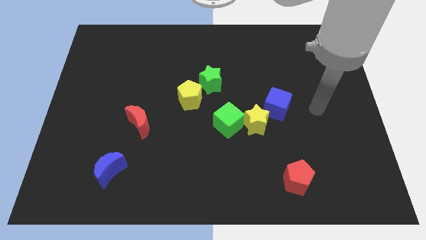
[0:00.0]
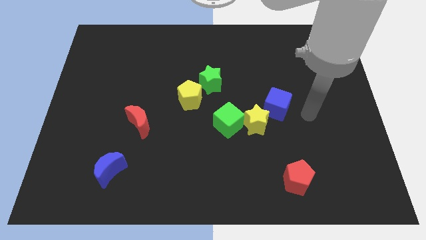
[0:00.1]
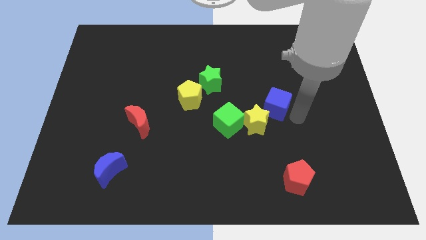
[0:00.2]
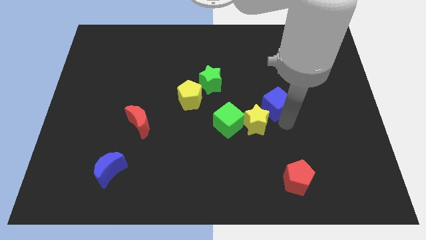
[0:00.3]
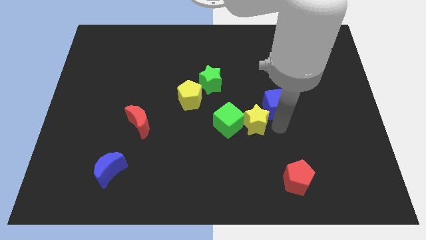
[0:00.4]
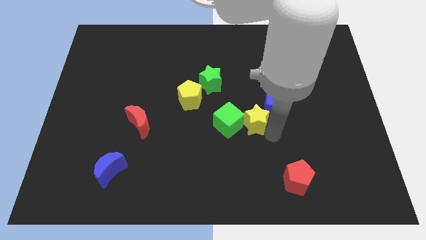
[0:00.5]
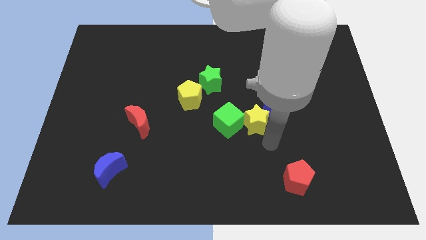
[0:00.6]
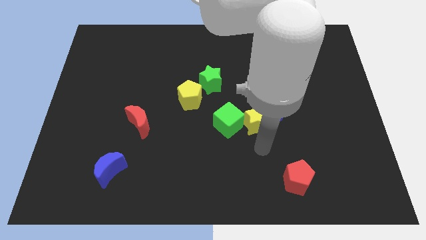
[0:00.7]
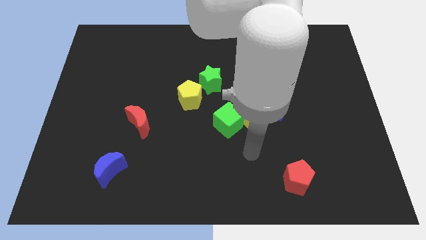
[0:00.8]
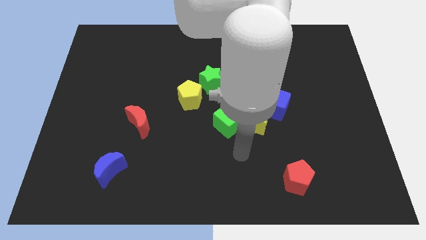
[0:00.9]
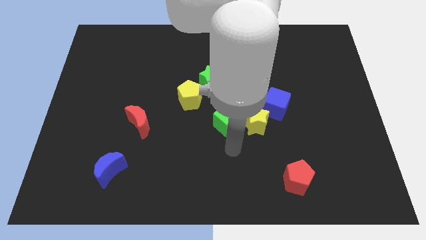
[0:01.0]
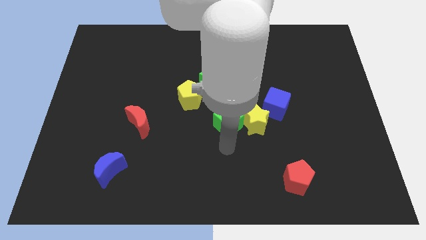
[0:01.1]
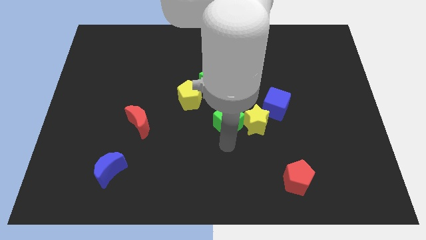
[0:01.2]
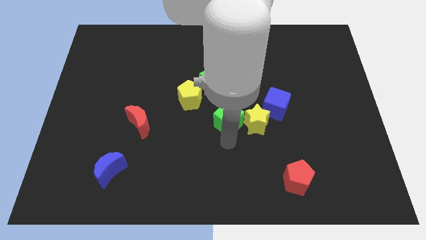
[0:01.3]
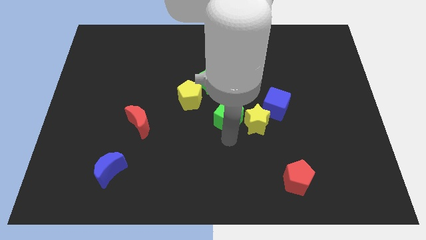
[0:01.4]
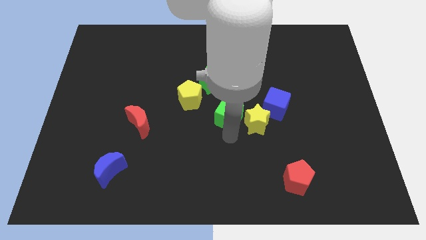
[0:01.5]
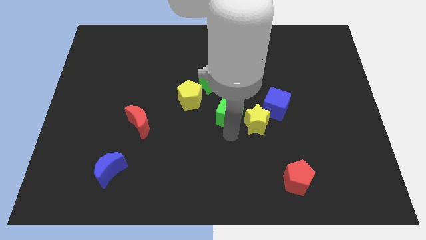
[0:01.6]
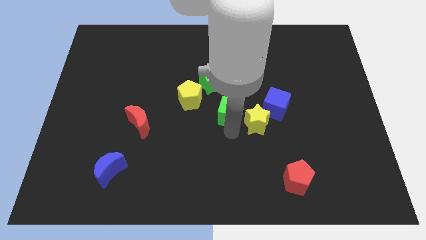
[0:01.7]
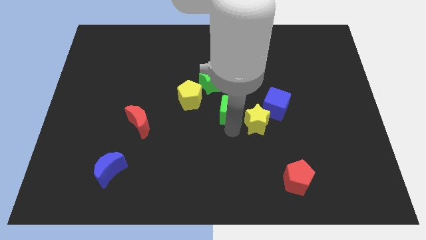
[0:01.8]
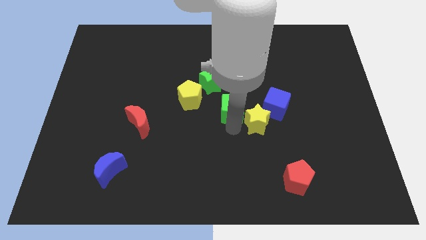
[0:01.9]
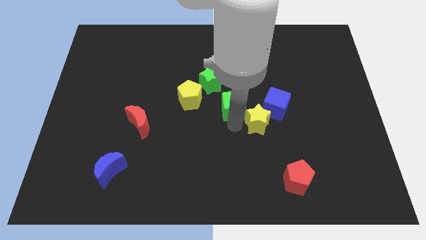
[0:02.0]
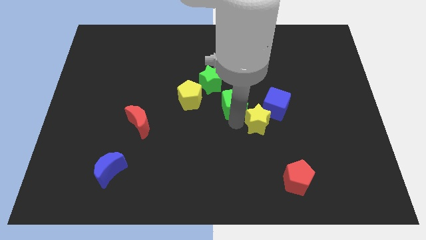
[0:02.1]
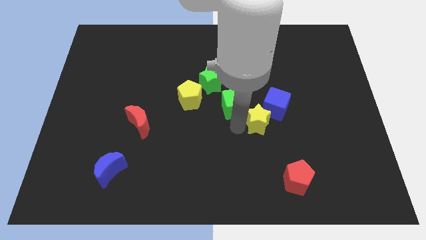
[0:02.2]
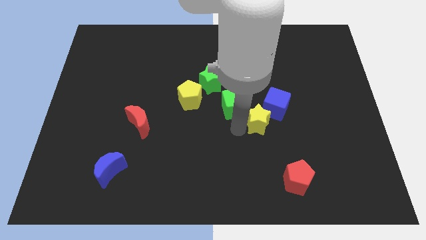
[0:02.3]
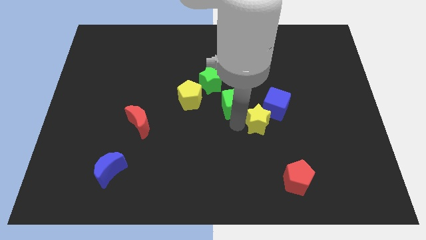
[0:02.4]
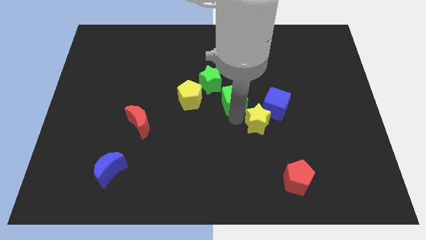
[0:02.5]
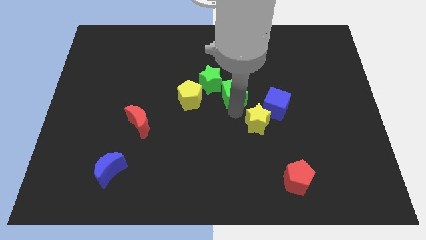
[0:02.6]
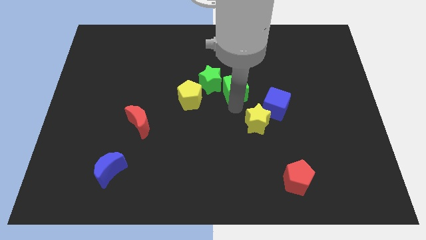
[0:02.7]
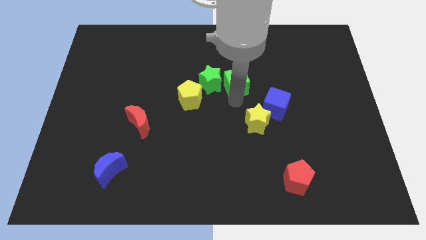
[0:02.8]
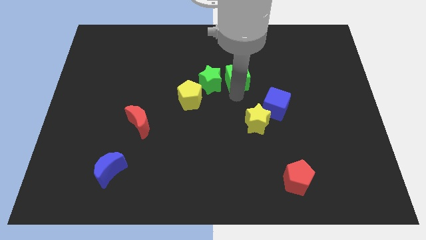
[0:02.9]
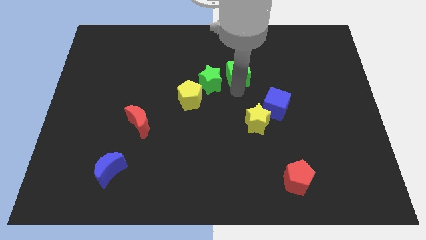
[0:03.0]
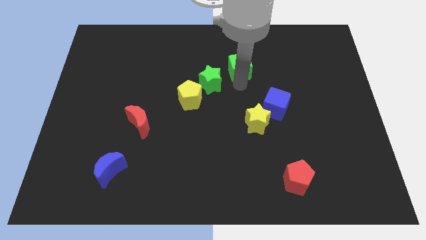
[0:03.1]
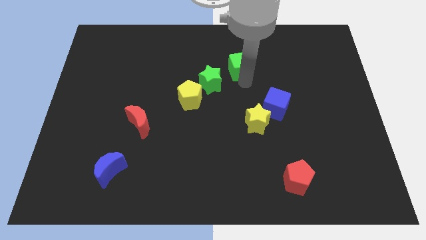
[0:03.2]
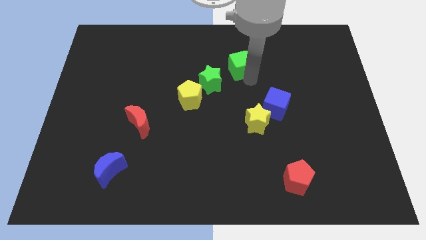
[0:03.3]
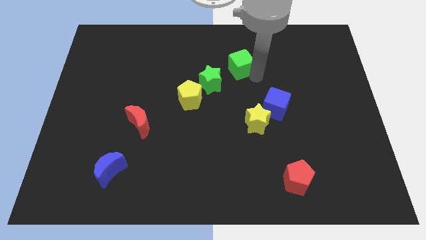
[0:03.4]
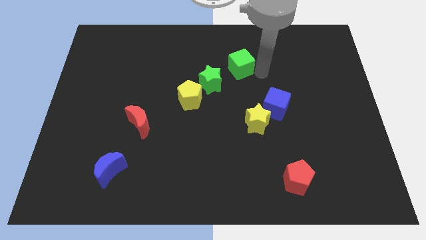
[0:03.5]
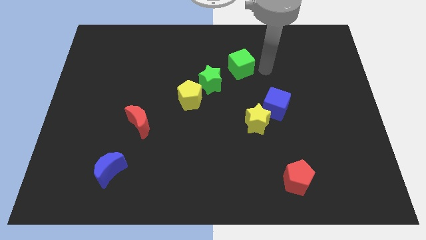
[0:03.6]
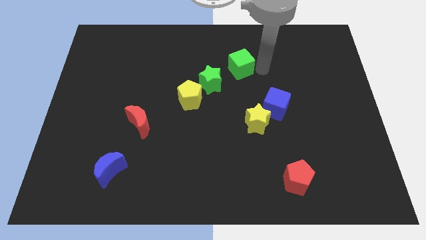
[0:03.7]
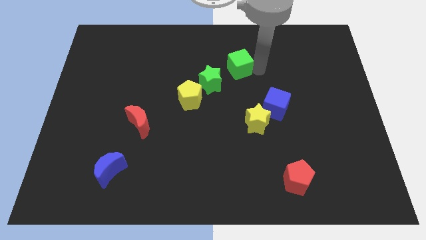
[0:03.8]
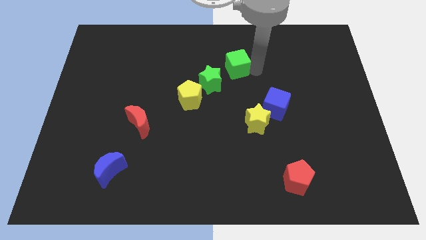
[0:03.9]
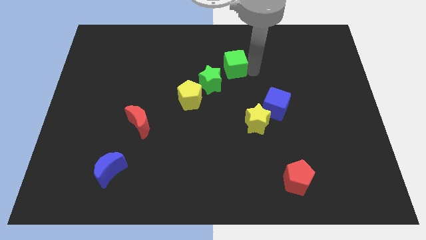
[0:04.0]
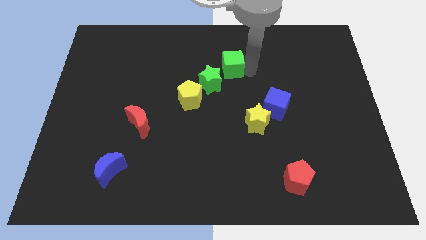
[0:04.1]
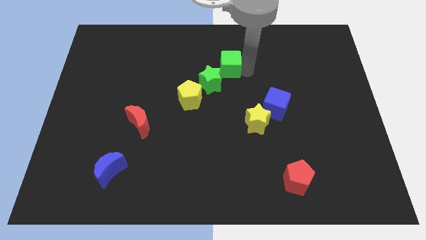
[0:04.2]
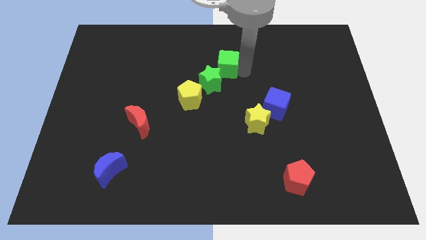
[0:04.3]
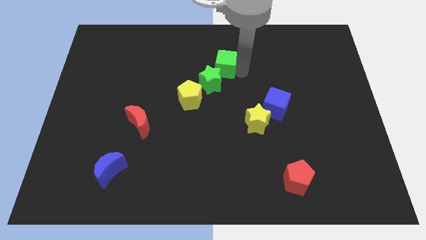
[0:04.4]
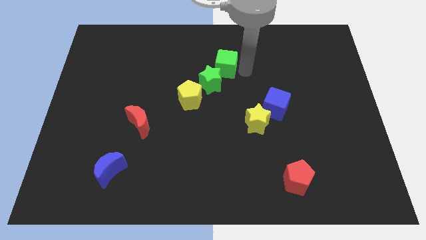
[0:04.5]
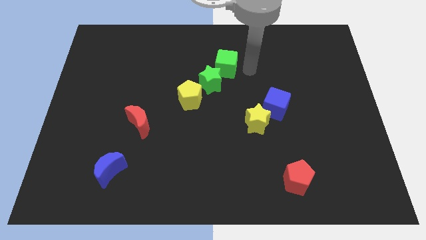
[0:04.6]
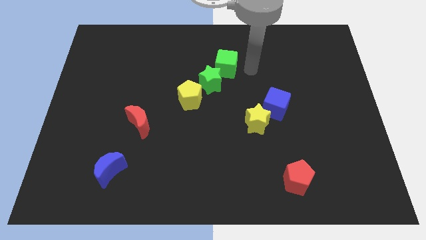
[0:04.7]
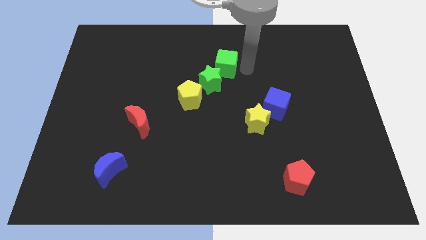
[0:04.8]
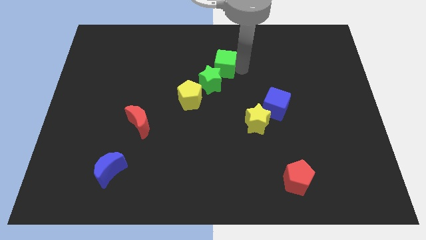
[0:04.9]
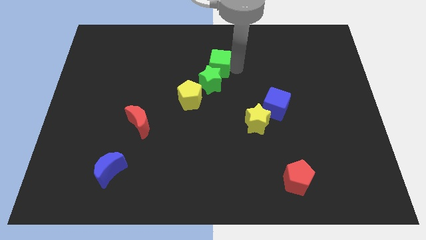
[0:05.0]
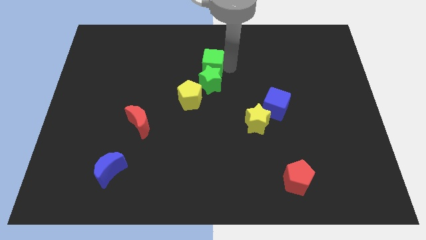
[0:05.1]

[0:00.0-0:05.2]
push the green cube to the top left side of the green star

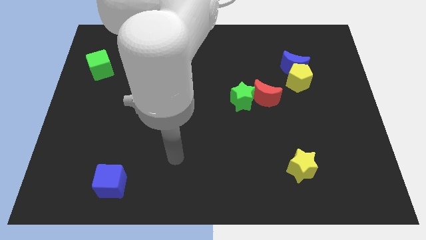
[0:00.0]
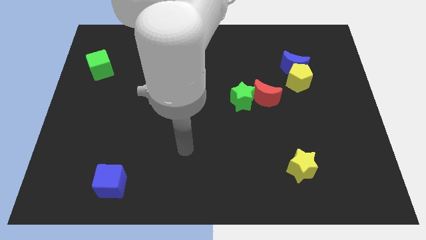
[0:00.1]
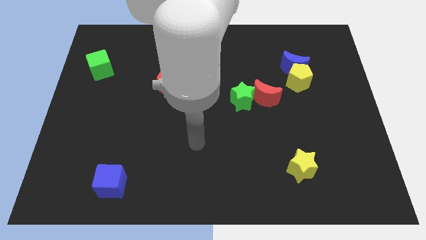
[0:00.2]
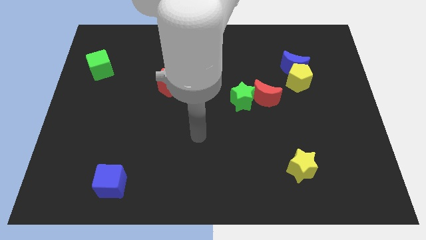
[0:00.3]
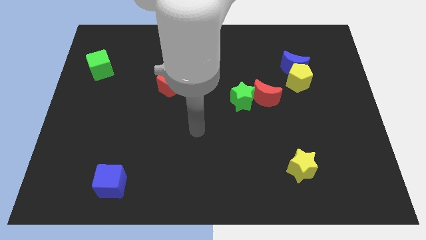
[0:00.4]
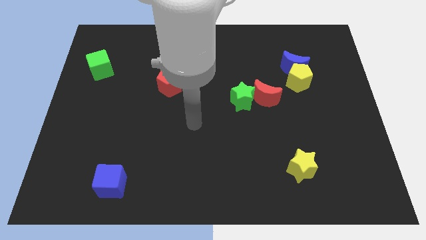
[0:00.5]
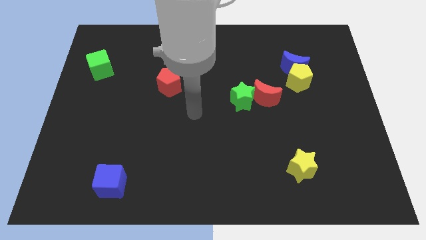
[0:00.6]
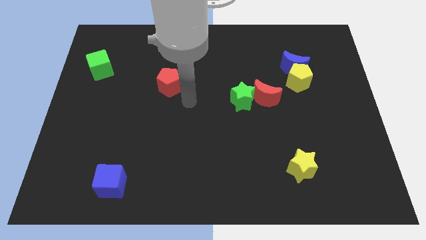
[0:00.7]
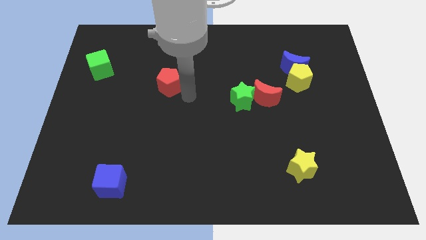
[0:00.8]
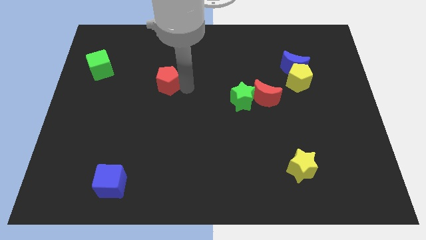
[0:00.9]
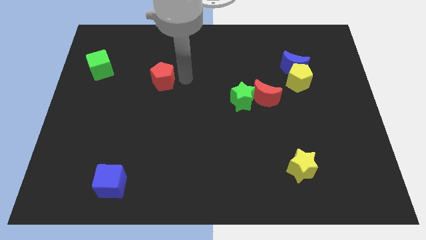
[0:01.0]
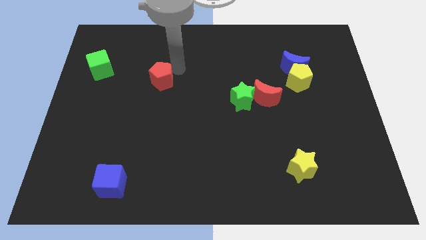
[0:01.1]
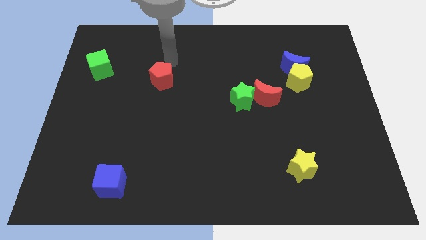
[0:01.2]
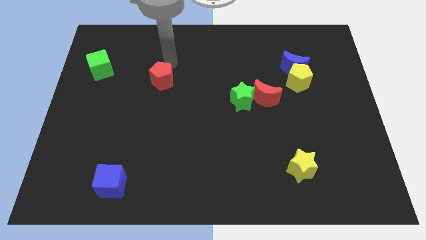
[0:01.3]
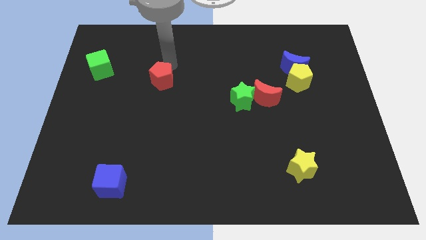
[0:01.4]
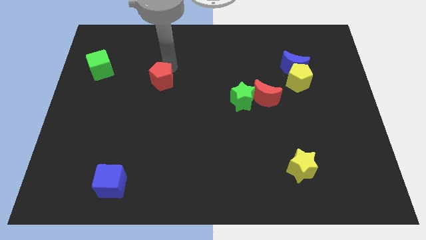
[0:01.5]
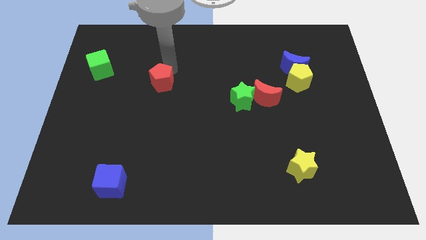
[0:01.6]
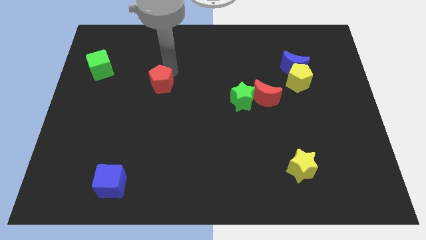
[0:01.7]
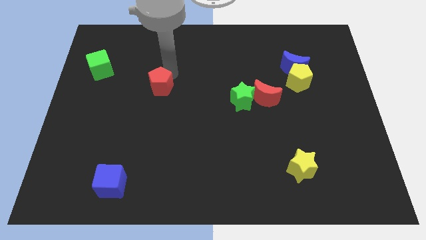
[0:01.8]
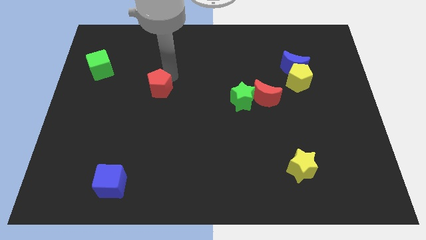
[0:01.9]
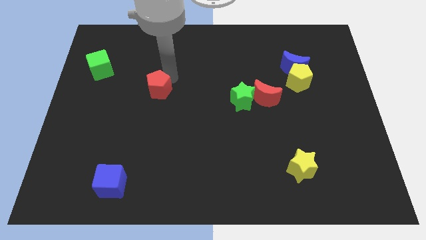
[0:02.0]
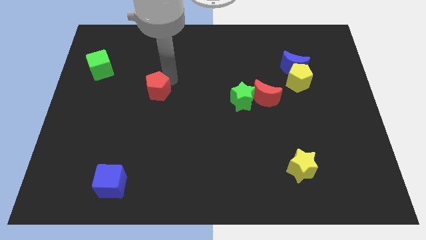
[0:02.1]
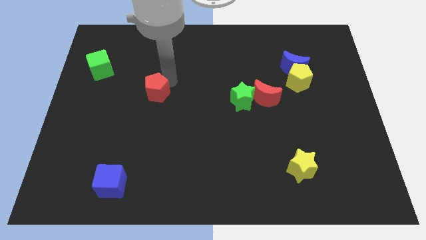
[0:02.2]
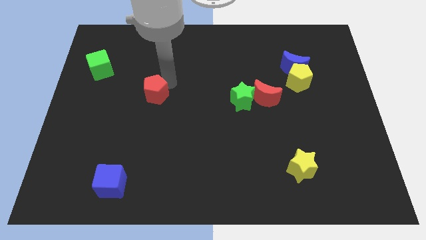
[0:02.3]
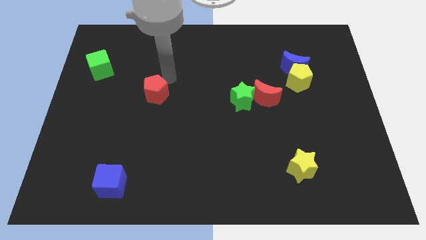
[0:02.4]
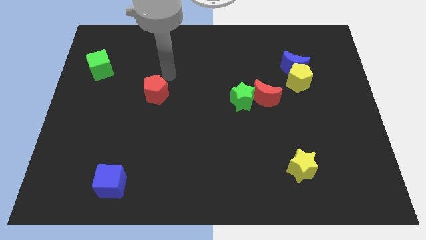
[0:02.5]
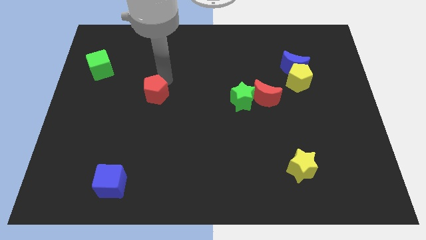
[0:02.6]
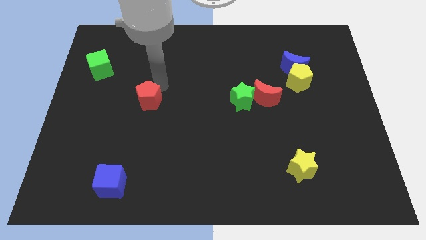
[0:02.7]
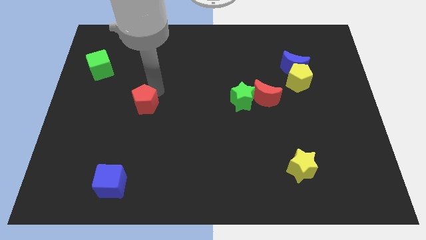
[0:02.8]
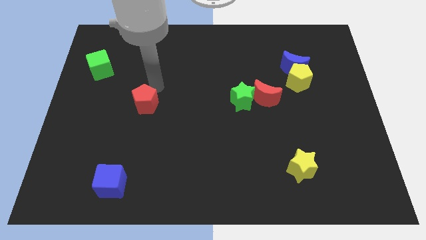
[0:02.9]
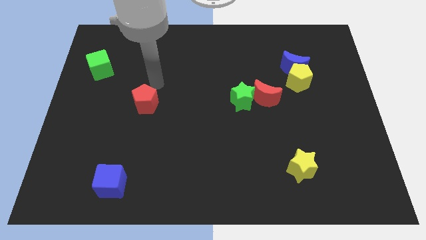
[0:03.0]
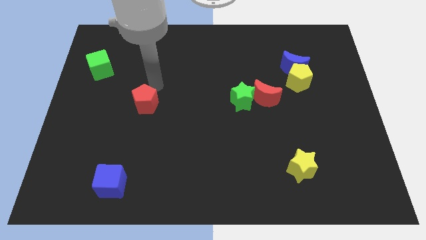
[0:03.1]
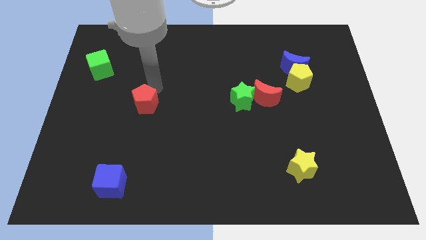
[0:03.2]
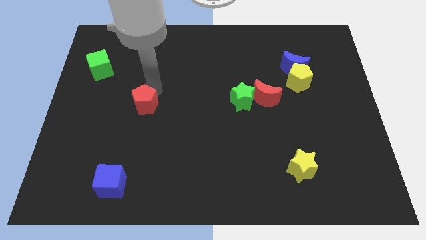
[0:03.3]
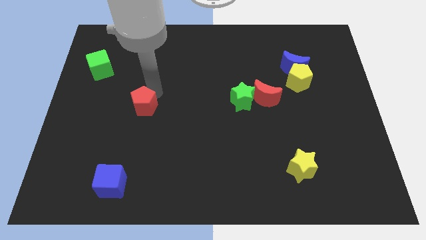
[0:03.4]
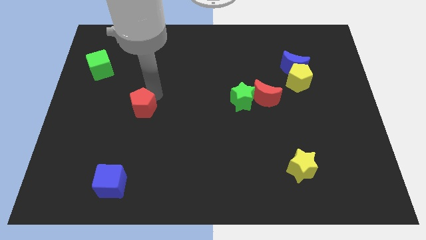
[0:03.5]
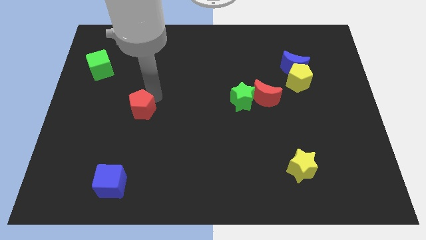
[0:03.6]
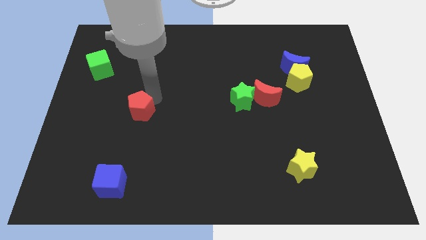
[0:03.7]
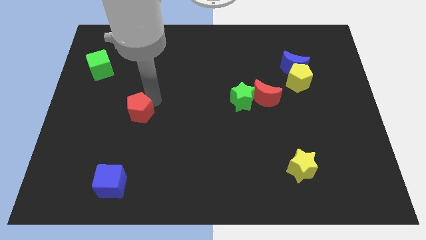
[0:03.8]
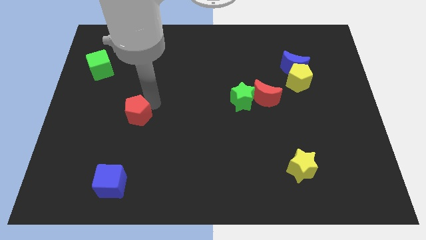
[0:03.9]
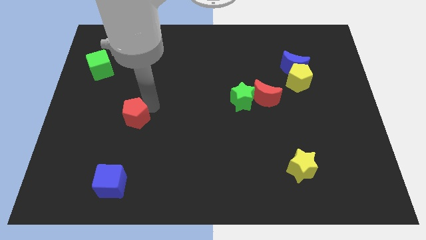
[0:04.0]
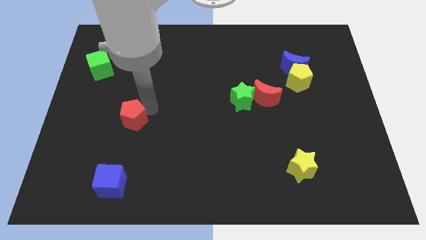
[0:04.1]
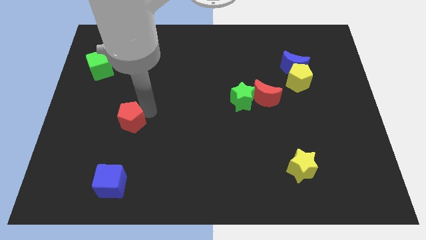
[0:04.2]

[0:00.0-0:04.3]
slide the red pentagon above the blue cube
